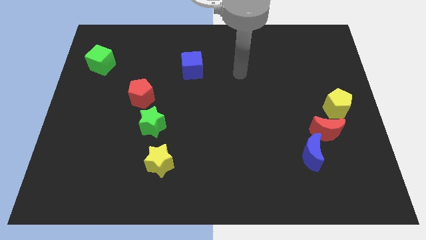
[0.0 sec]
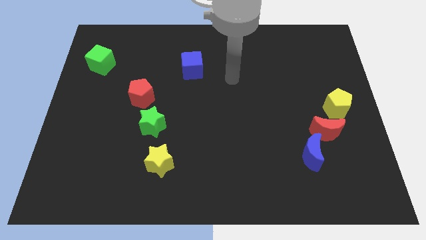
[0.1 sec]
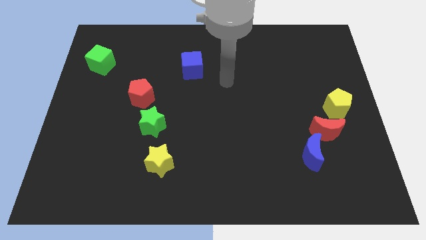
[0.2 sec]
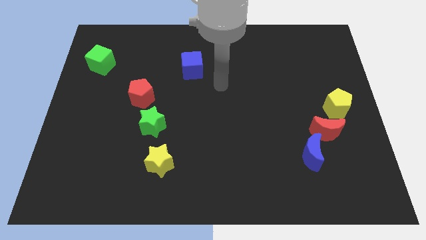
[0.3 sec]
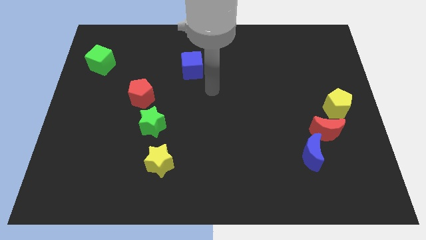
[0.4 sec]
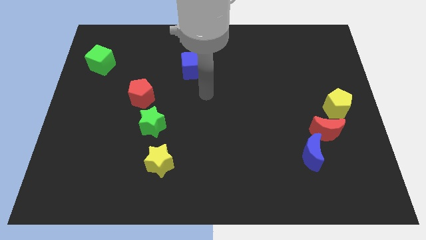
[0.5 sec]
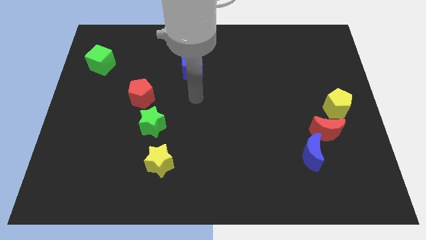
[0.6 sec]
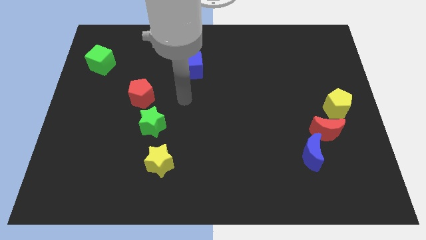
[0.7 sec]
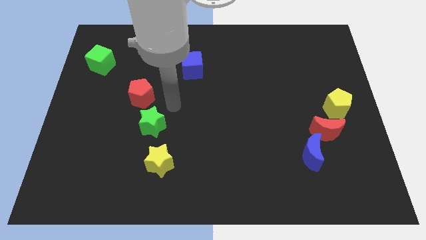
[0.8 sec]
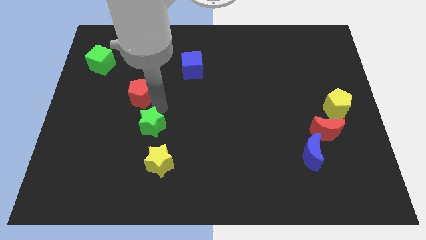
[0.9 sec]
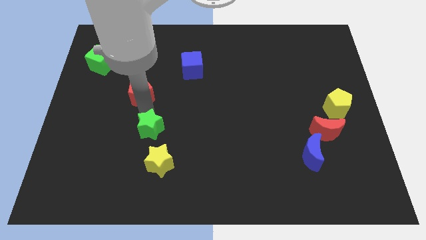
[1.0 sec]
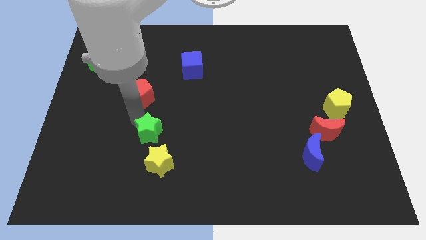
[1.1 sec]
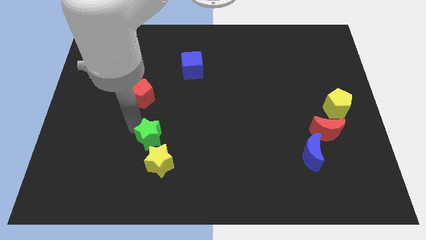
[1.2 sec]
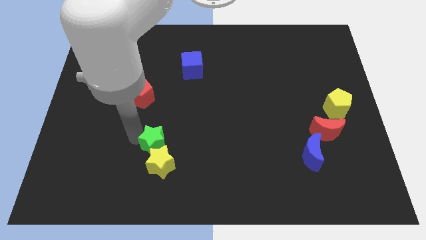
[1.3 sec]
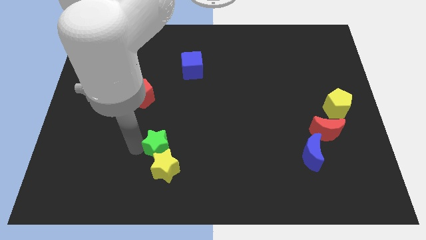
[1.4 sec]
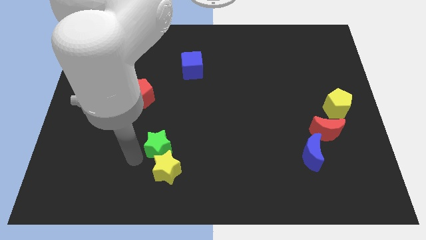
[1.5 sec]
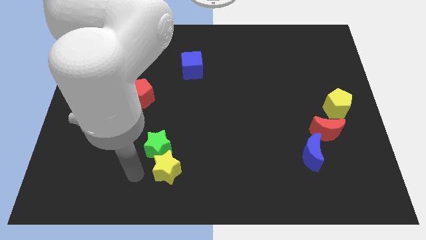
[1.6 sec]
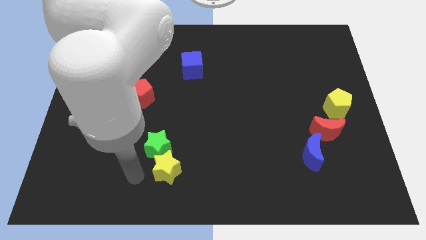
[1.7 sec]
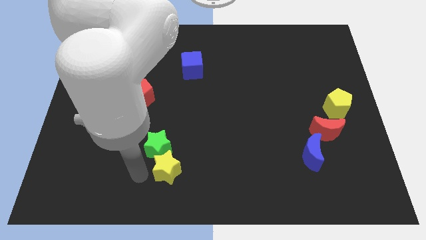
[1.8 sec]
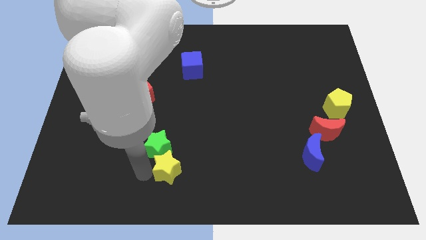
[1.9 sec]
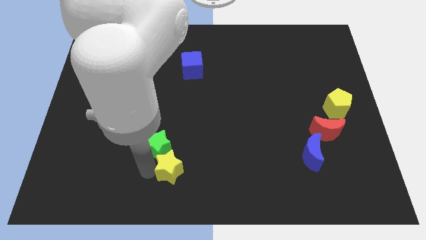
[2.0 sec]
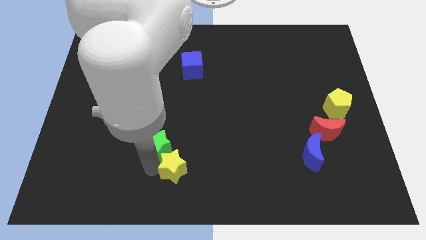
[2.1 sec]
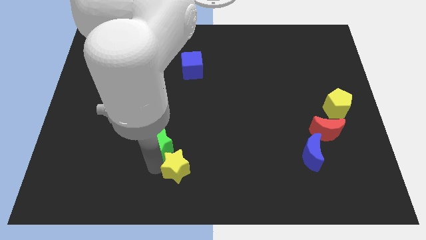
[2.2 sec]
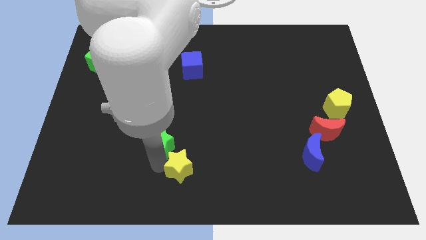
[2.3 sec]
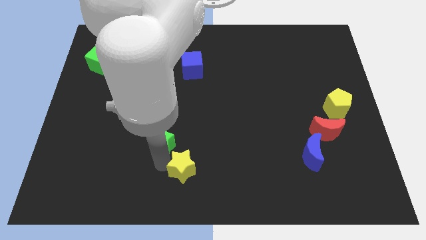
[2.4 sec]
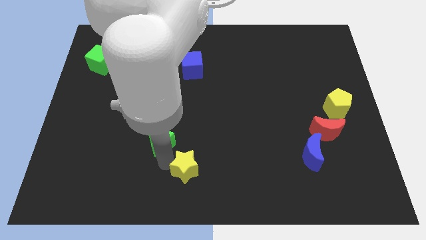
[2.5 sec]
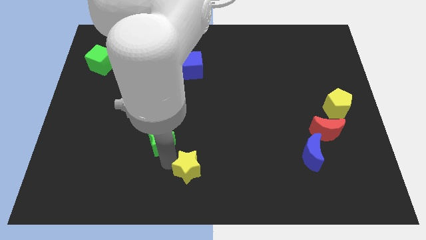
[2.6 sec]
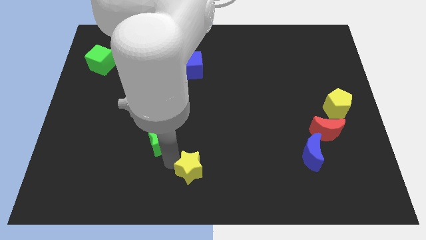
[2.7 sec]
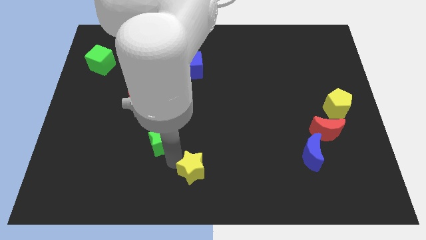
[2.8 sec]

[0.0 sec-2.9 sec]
slide the yellow star a bit to the right

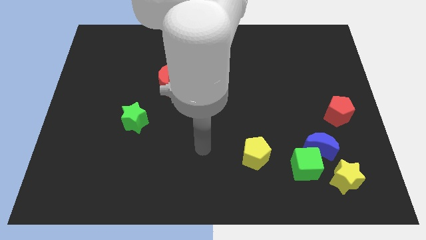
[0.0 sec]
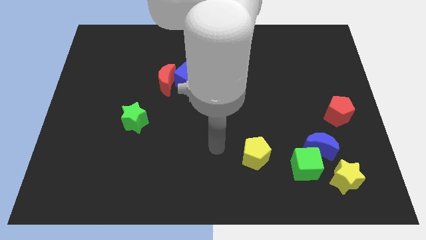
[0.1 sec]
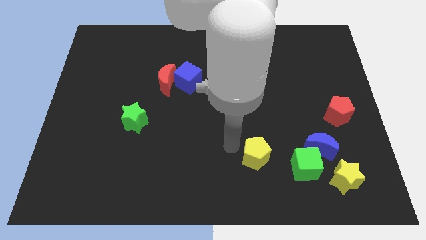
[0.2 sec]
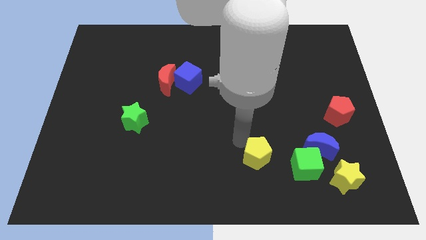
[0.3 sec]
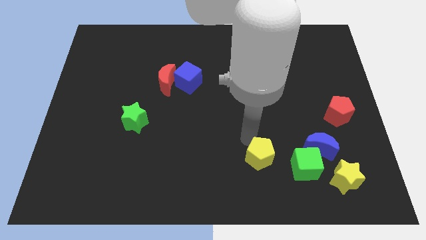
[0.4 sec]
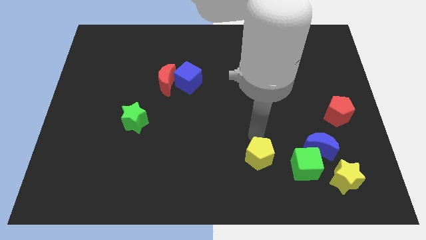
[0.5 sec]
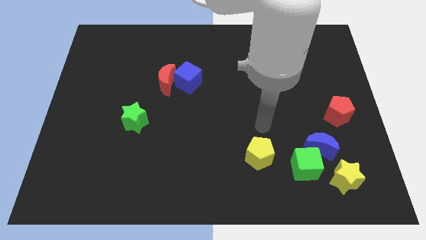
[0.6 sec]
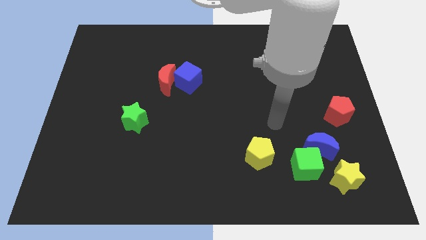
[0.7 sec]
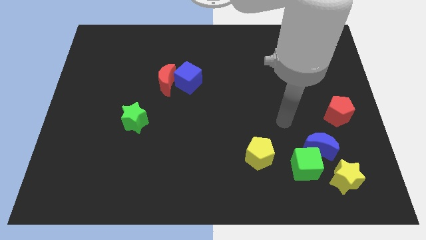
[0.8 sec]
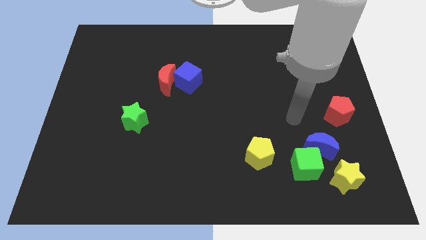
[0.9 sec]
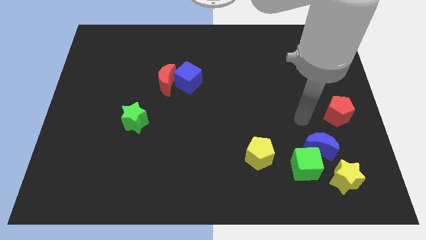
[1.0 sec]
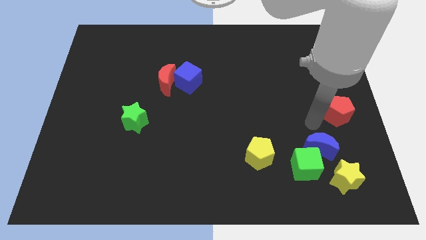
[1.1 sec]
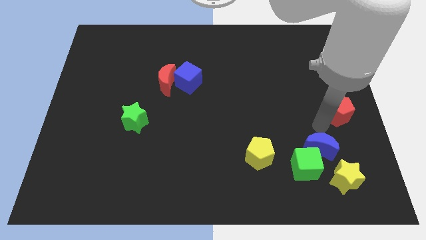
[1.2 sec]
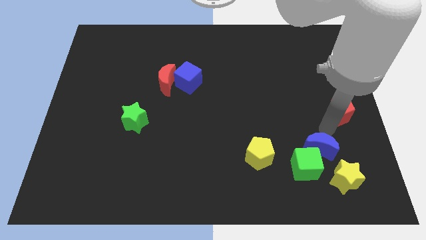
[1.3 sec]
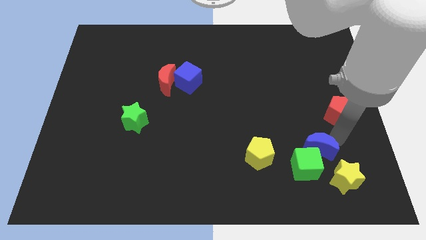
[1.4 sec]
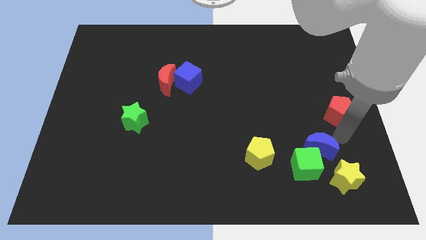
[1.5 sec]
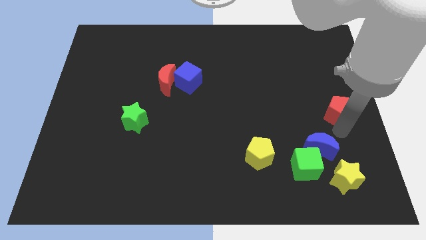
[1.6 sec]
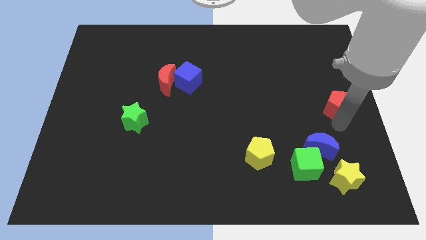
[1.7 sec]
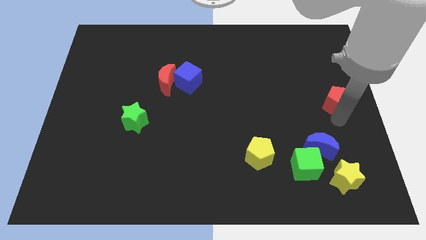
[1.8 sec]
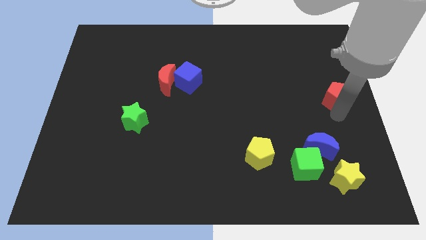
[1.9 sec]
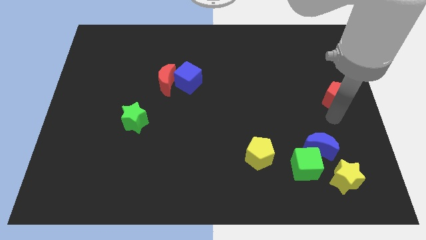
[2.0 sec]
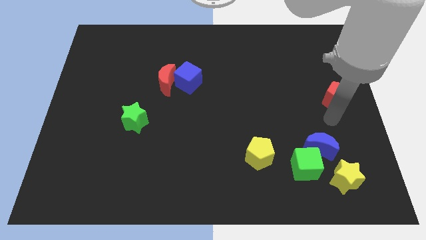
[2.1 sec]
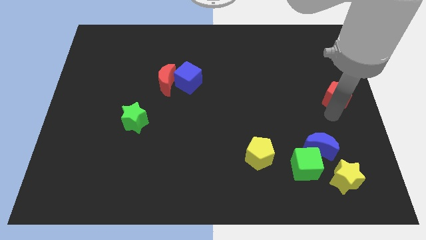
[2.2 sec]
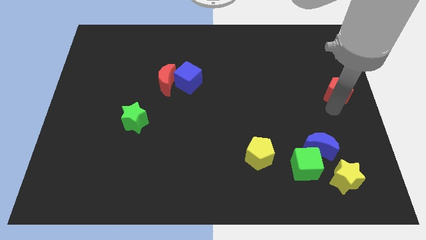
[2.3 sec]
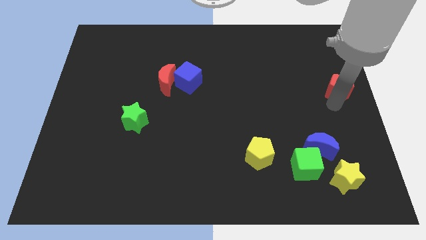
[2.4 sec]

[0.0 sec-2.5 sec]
slightly move the red pentagon upwards

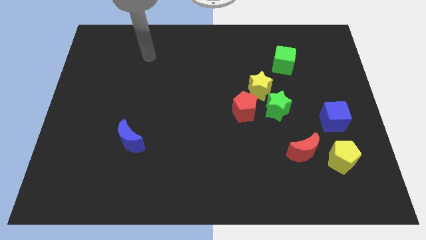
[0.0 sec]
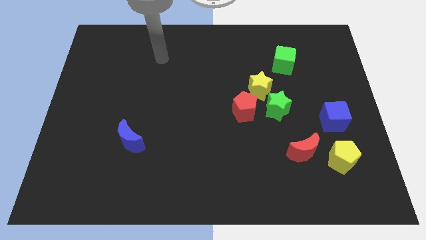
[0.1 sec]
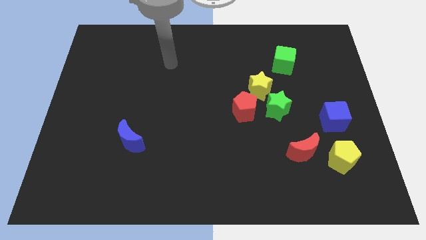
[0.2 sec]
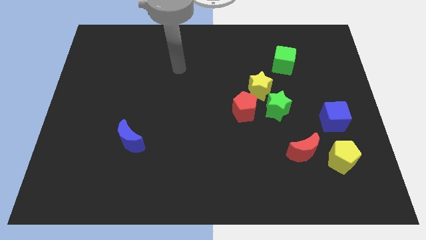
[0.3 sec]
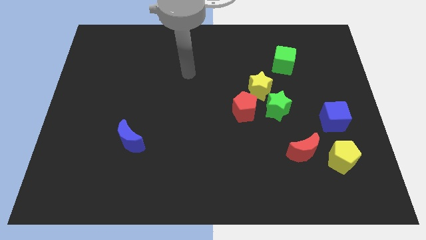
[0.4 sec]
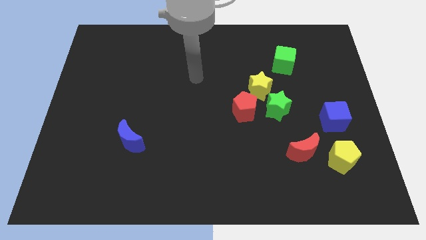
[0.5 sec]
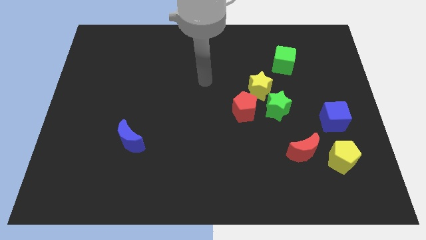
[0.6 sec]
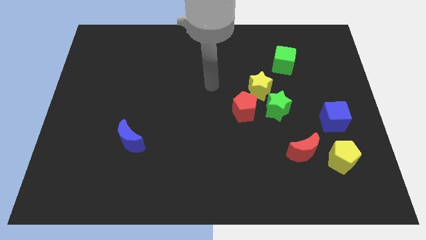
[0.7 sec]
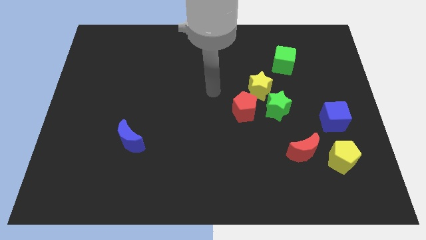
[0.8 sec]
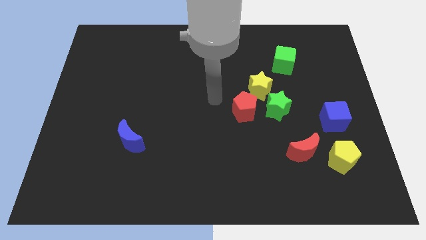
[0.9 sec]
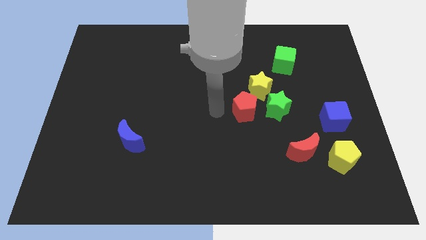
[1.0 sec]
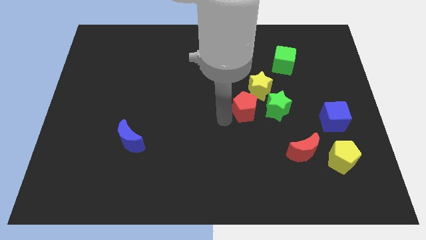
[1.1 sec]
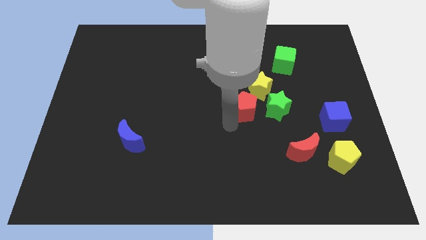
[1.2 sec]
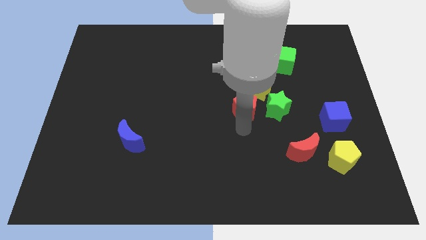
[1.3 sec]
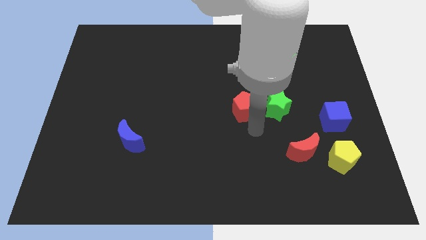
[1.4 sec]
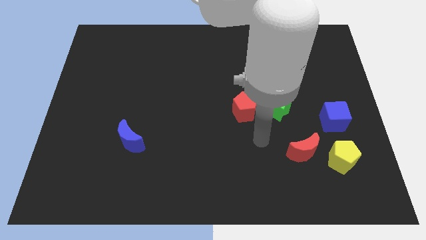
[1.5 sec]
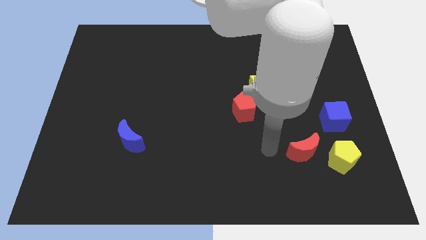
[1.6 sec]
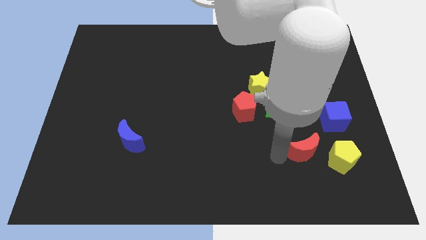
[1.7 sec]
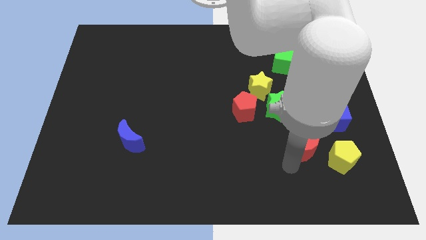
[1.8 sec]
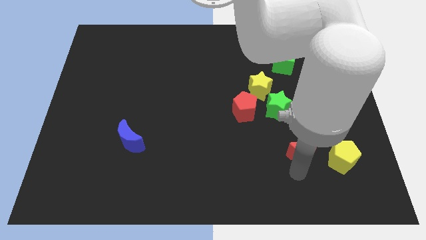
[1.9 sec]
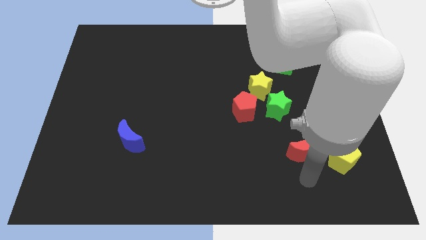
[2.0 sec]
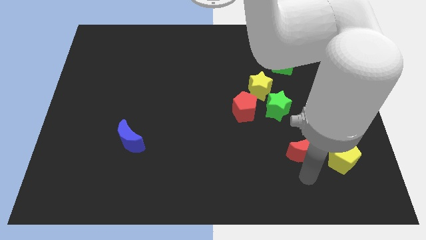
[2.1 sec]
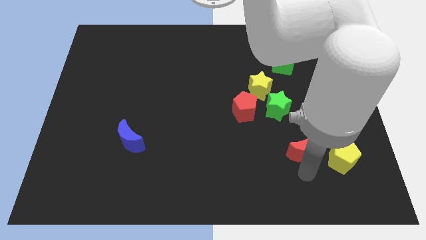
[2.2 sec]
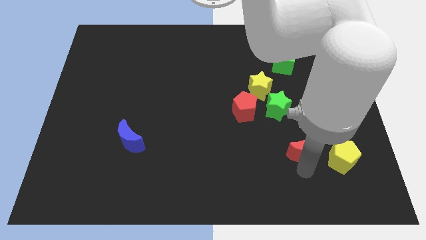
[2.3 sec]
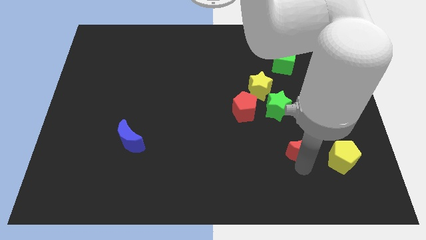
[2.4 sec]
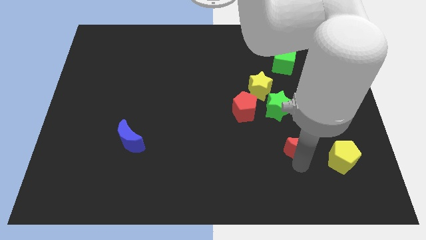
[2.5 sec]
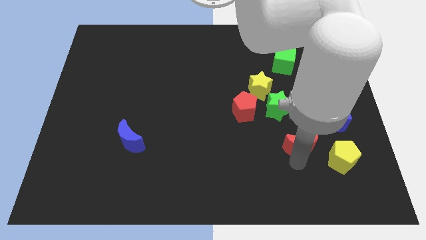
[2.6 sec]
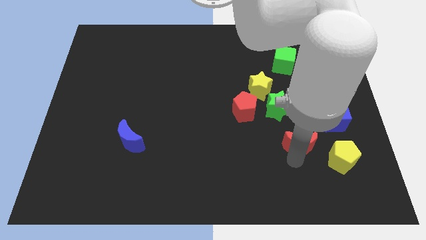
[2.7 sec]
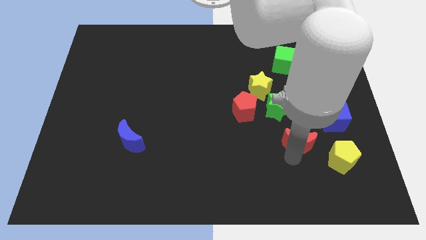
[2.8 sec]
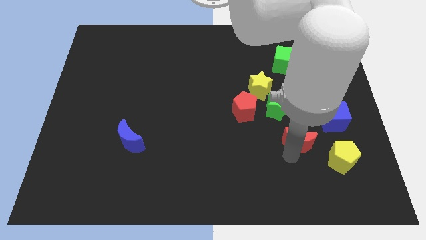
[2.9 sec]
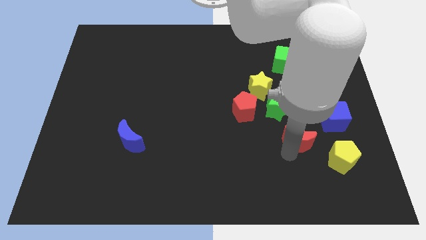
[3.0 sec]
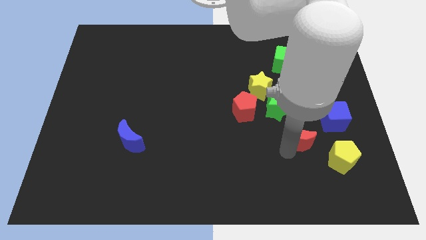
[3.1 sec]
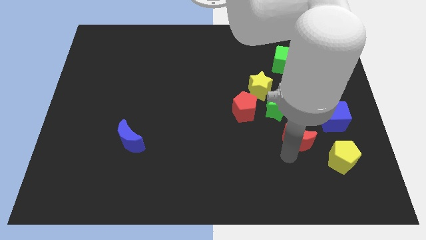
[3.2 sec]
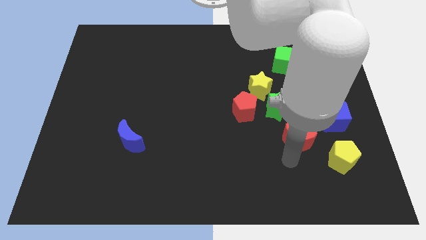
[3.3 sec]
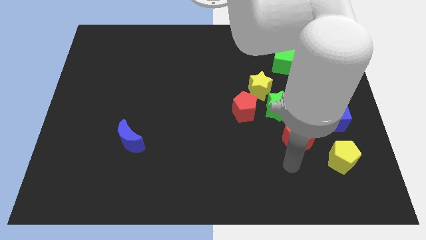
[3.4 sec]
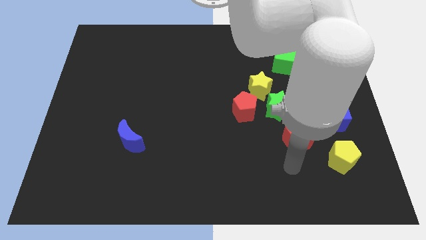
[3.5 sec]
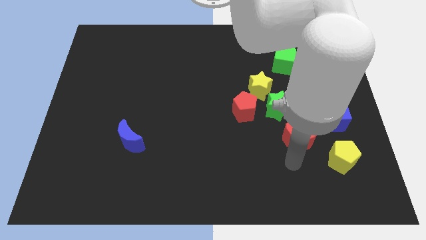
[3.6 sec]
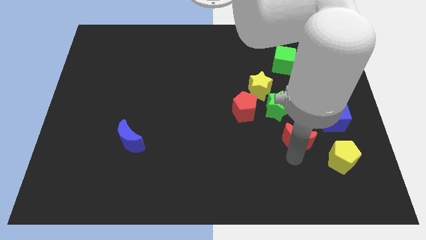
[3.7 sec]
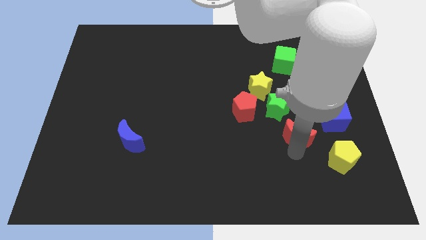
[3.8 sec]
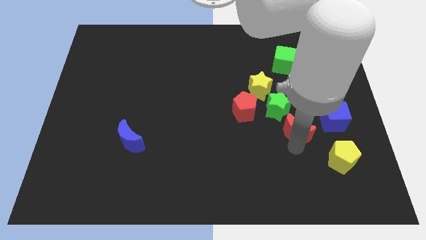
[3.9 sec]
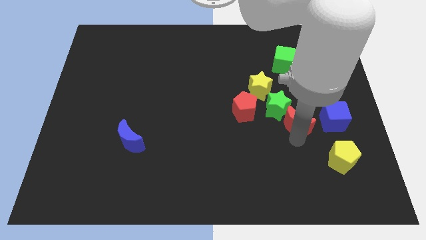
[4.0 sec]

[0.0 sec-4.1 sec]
slightly move the red moon up
